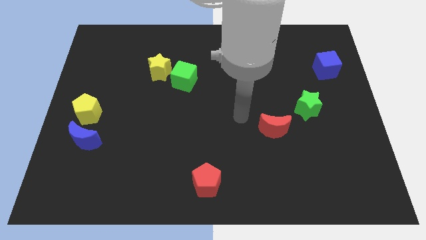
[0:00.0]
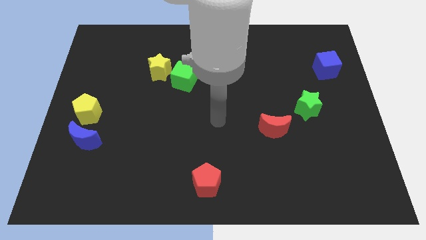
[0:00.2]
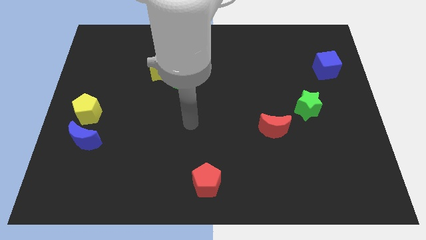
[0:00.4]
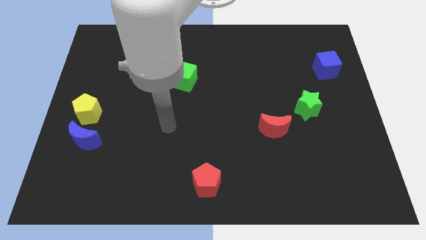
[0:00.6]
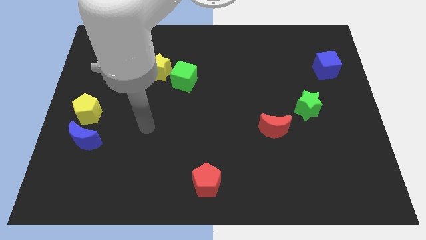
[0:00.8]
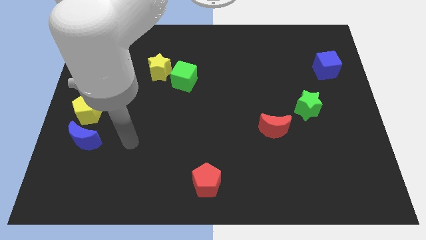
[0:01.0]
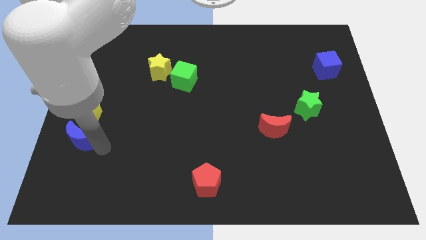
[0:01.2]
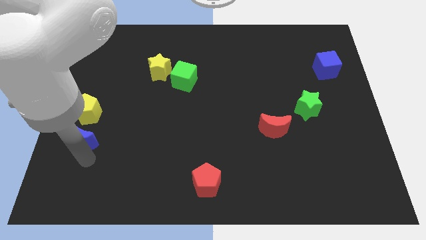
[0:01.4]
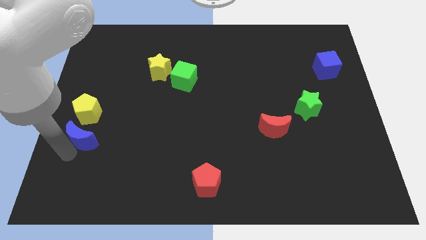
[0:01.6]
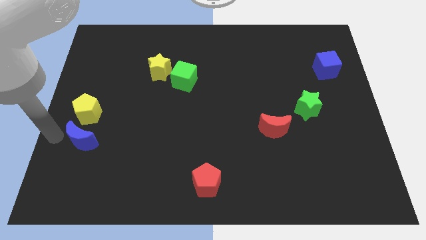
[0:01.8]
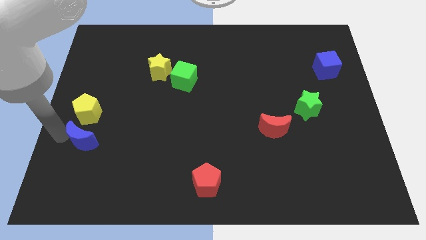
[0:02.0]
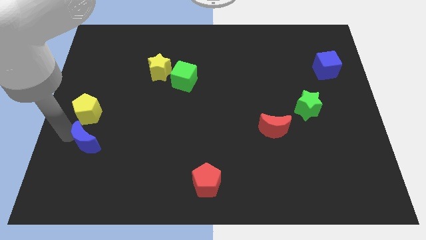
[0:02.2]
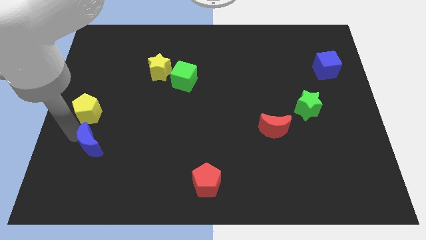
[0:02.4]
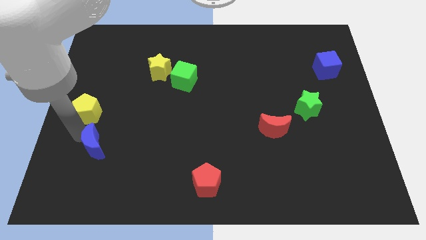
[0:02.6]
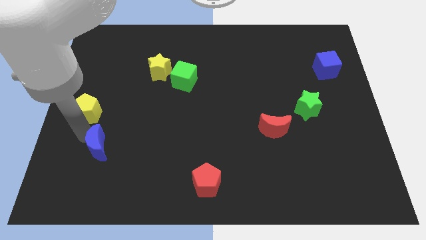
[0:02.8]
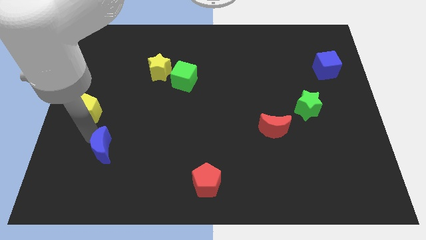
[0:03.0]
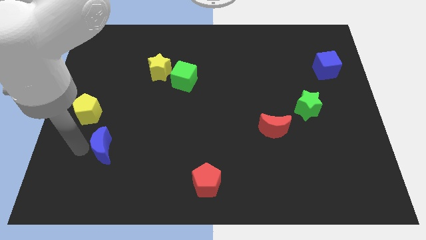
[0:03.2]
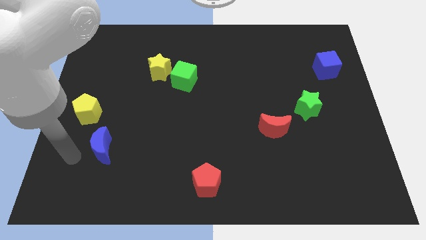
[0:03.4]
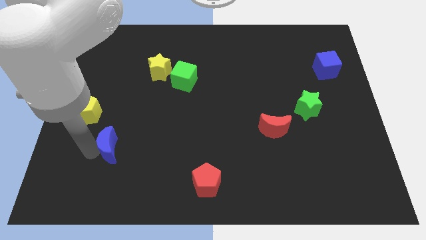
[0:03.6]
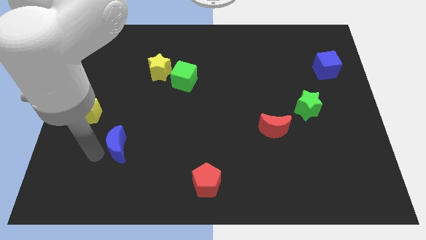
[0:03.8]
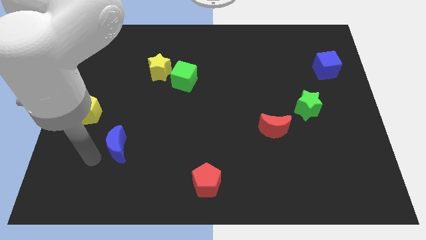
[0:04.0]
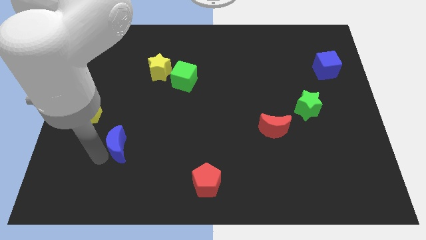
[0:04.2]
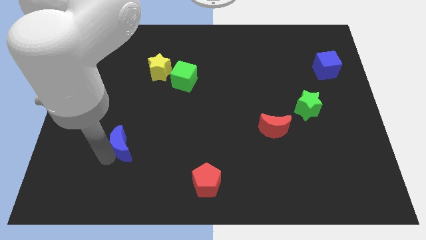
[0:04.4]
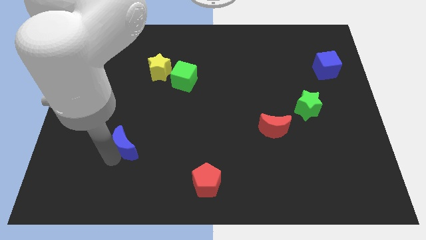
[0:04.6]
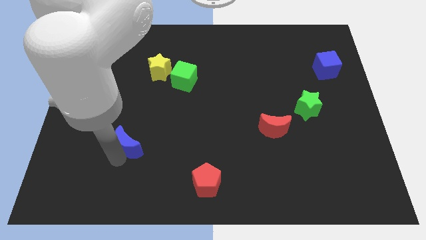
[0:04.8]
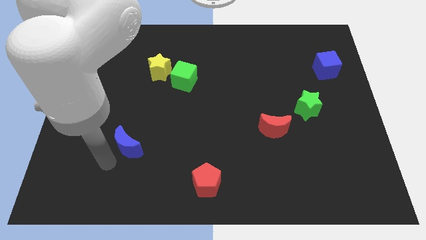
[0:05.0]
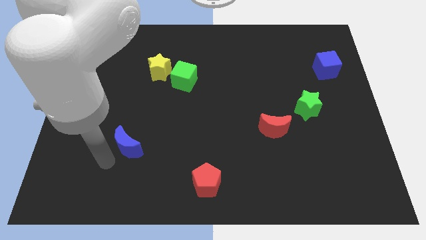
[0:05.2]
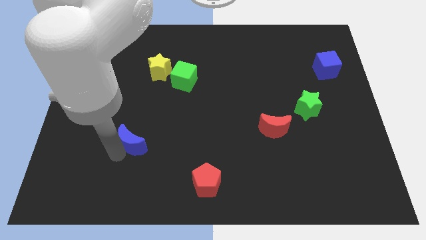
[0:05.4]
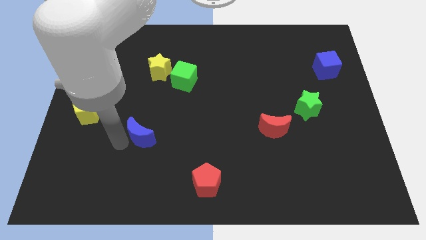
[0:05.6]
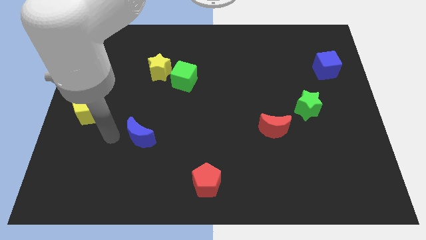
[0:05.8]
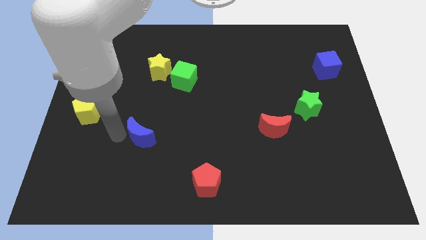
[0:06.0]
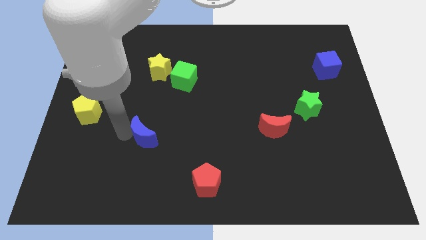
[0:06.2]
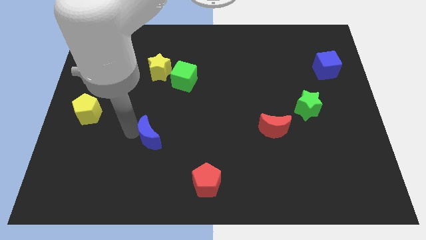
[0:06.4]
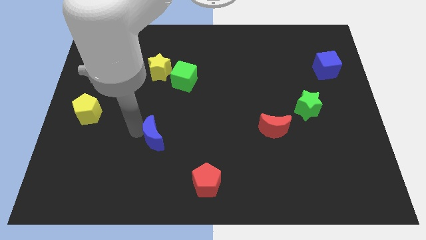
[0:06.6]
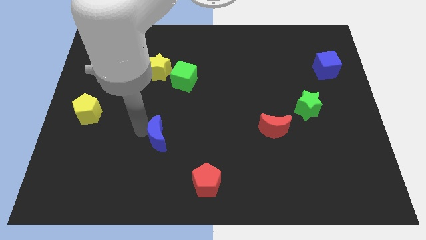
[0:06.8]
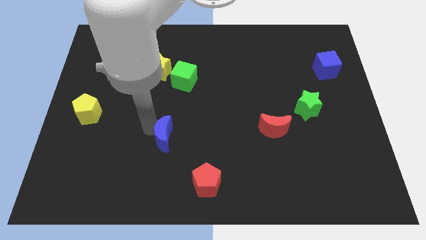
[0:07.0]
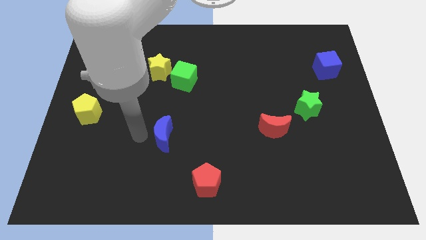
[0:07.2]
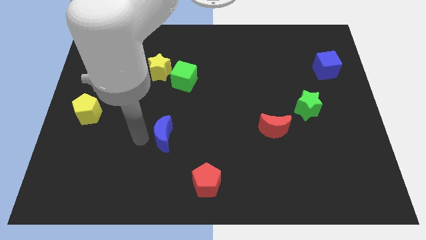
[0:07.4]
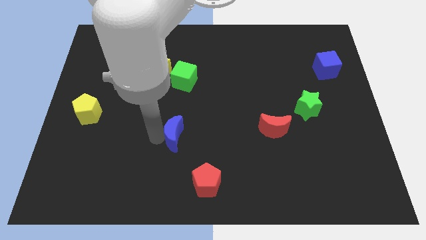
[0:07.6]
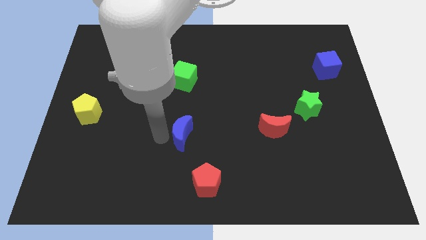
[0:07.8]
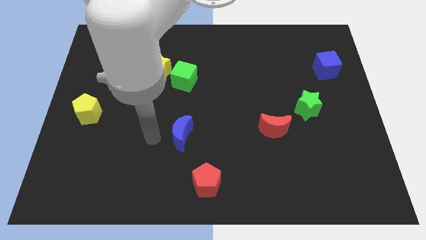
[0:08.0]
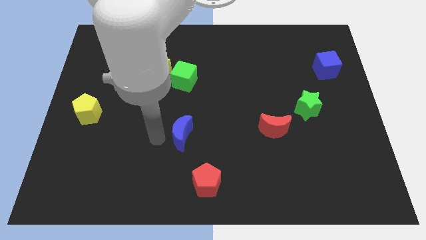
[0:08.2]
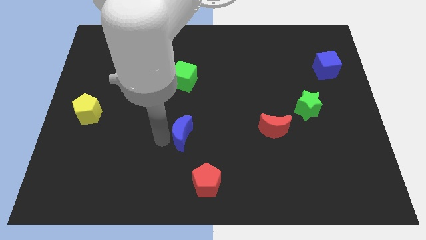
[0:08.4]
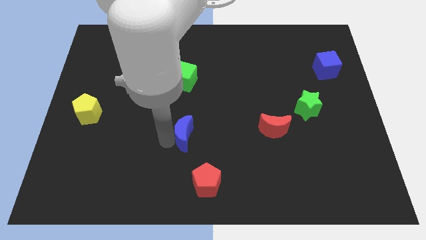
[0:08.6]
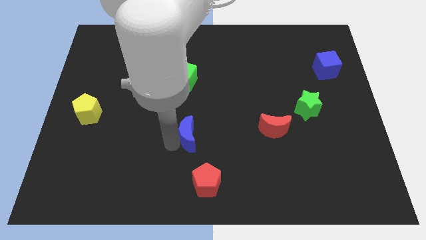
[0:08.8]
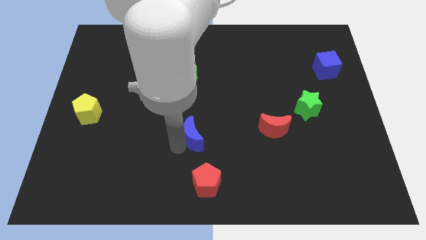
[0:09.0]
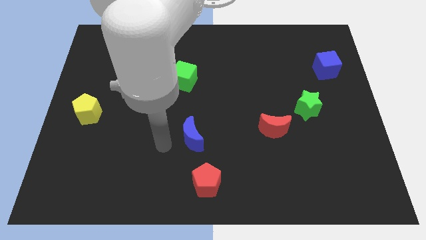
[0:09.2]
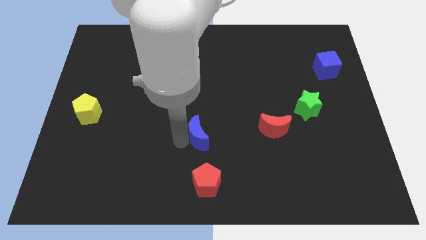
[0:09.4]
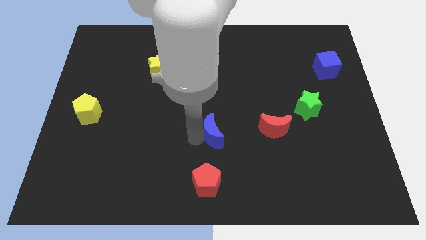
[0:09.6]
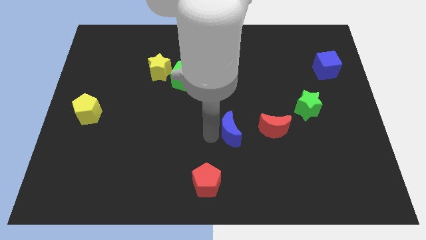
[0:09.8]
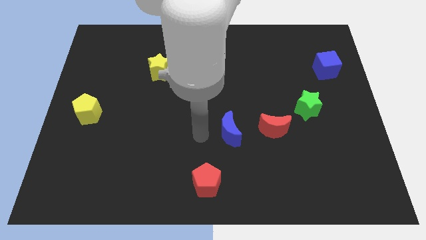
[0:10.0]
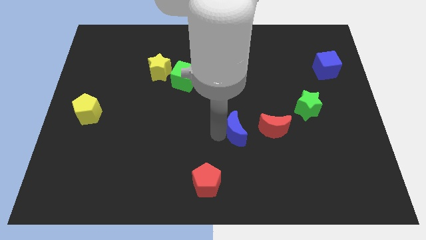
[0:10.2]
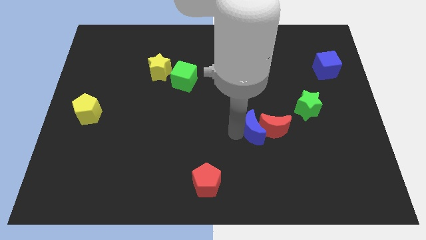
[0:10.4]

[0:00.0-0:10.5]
push the blue moon close to the red moon

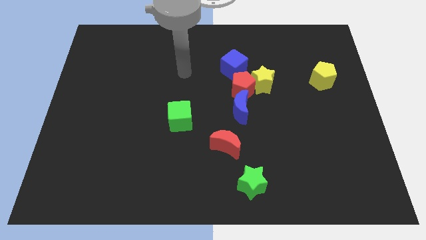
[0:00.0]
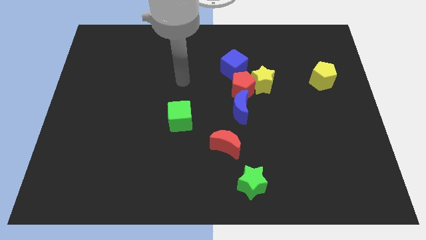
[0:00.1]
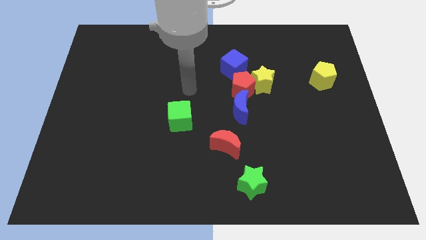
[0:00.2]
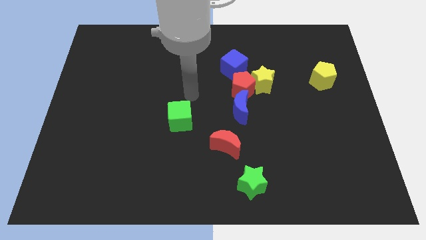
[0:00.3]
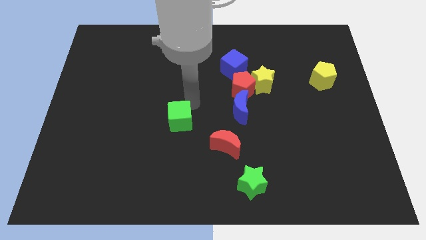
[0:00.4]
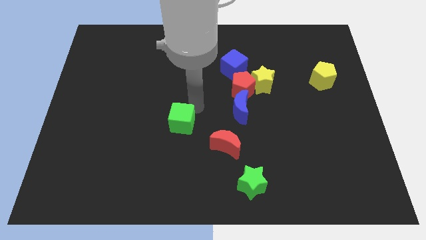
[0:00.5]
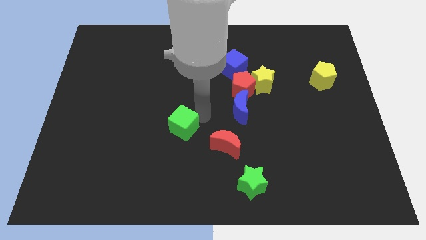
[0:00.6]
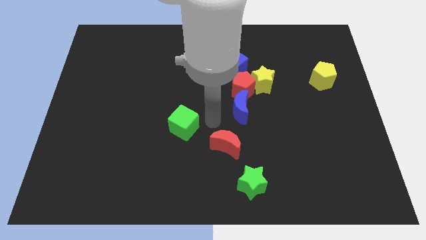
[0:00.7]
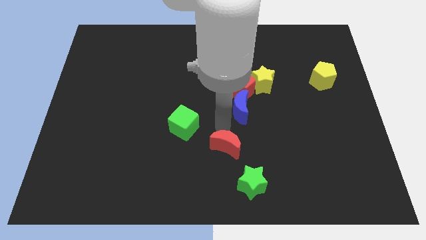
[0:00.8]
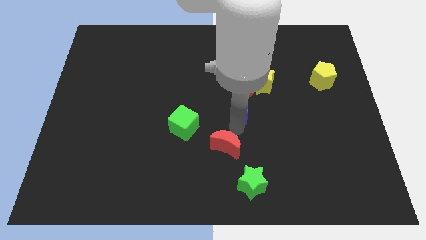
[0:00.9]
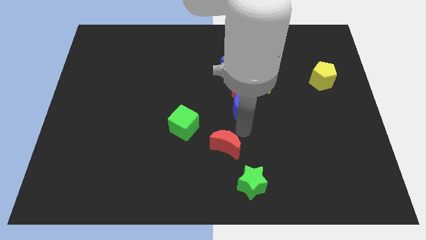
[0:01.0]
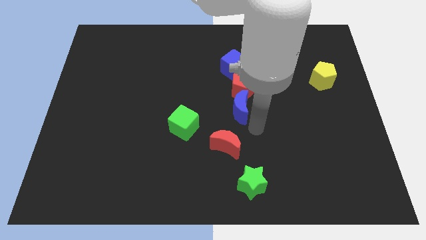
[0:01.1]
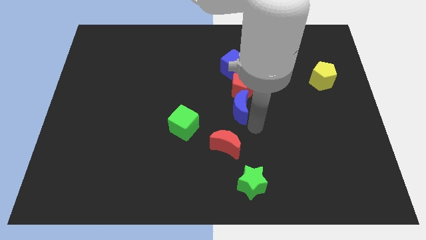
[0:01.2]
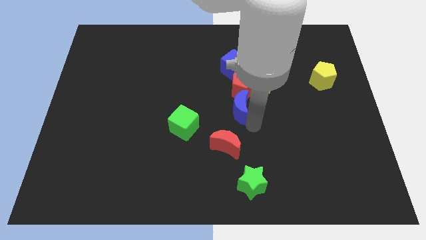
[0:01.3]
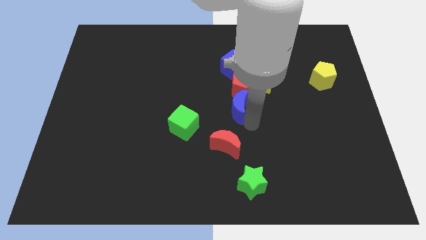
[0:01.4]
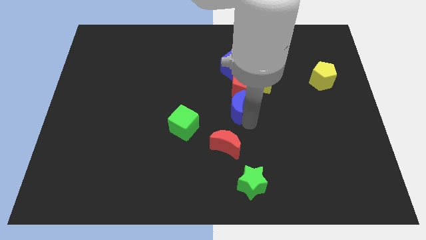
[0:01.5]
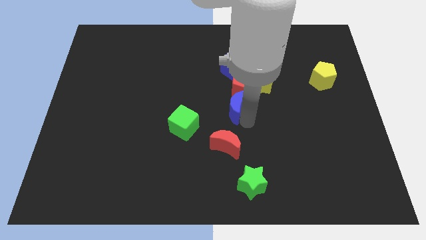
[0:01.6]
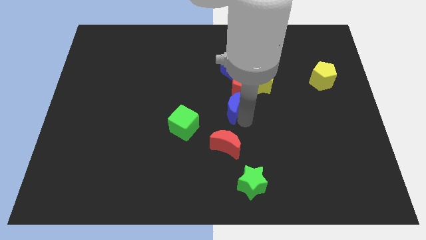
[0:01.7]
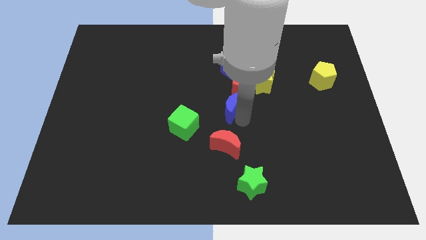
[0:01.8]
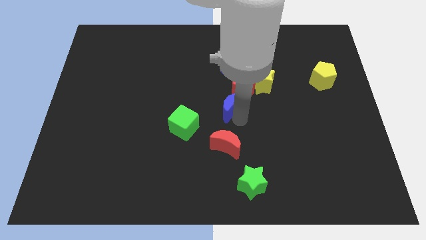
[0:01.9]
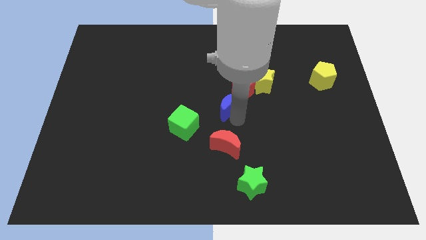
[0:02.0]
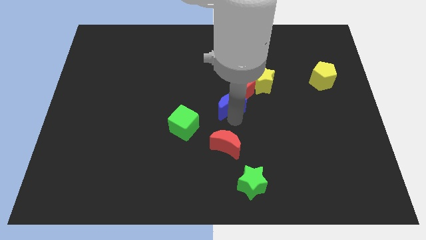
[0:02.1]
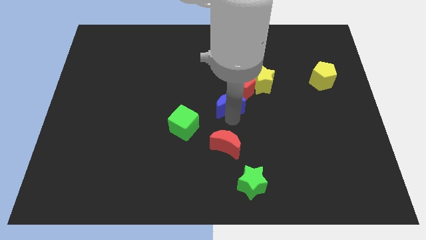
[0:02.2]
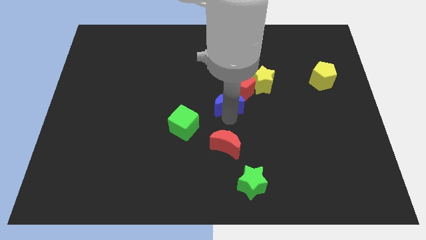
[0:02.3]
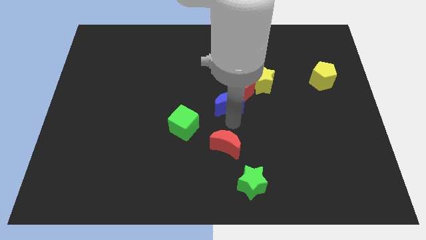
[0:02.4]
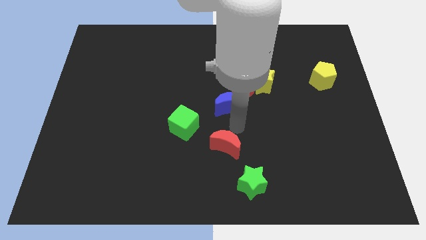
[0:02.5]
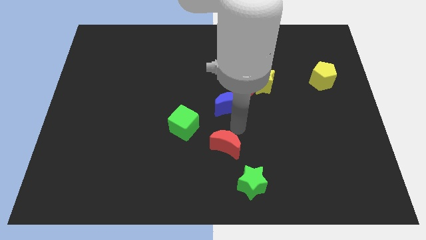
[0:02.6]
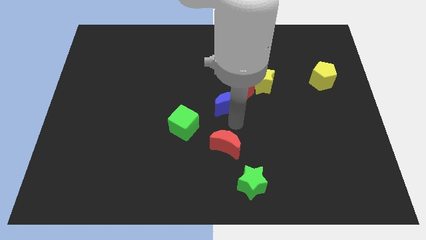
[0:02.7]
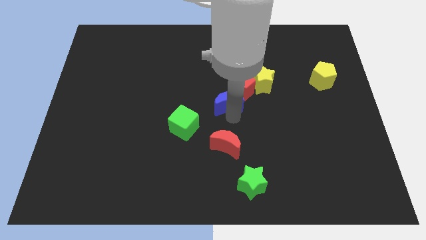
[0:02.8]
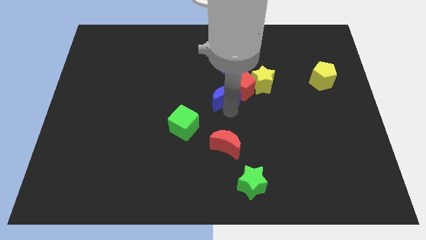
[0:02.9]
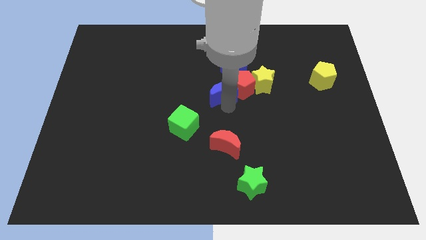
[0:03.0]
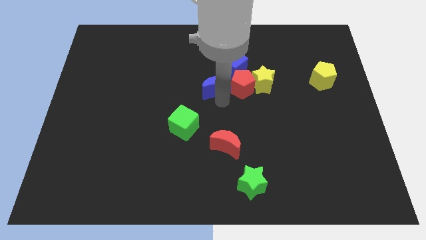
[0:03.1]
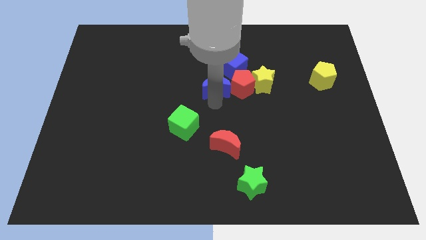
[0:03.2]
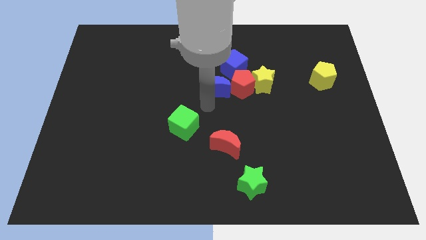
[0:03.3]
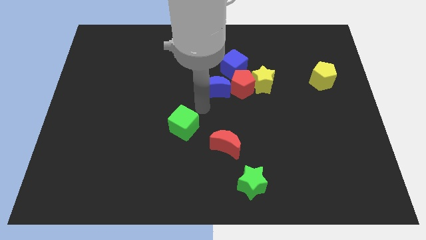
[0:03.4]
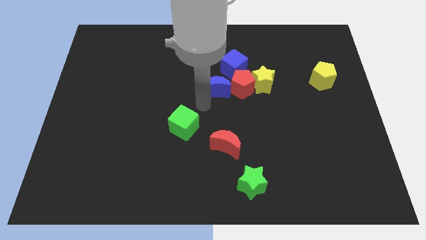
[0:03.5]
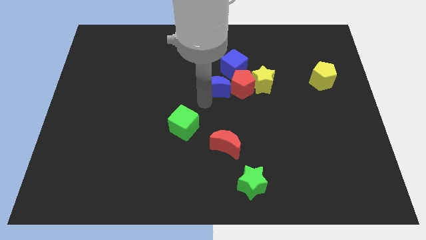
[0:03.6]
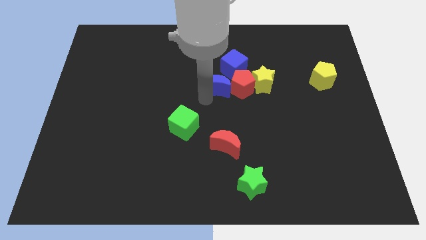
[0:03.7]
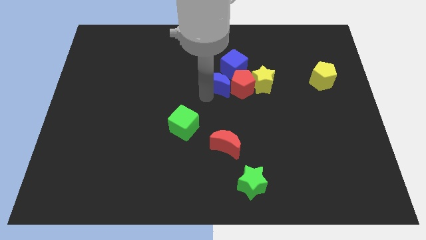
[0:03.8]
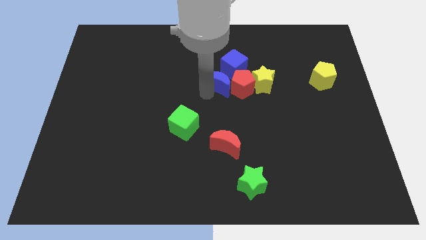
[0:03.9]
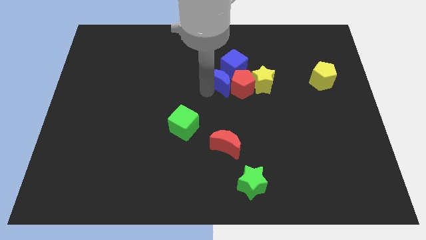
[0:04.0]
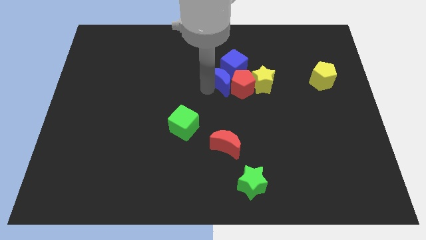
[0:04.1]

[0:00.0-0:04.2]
slide the blue moon next to the blue cube
